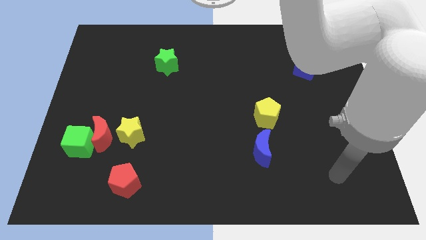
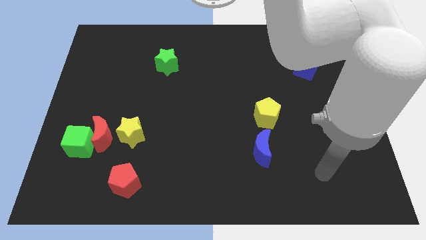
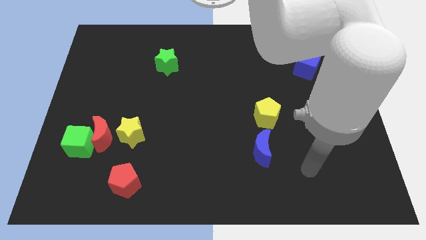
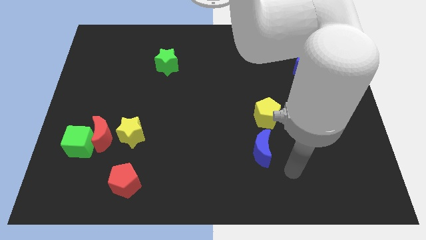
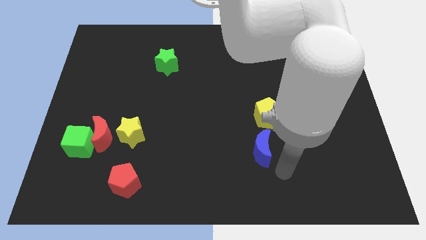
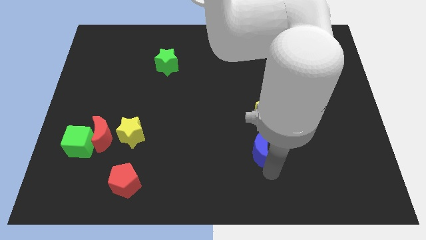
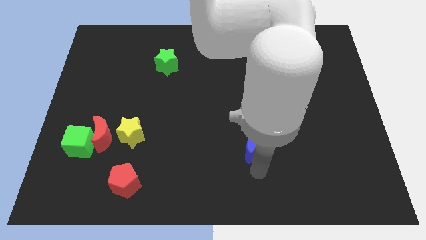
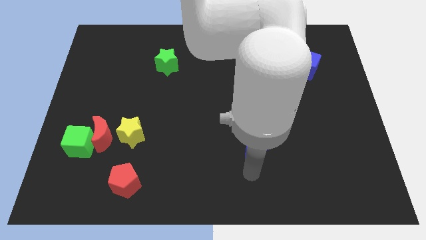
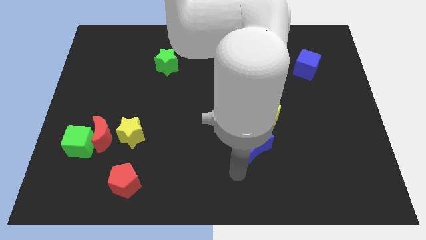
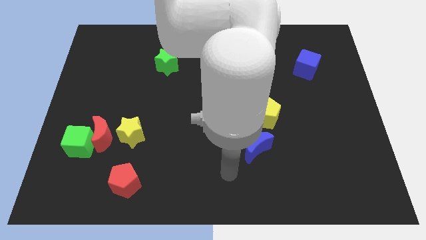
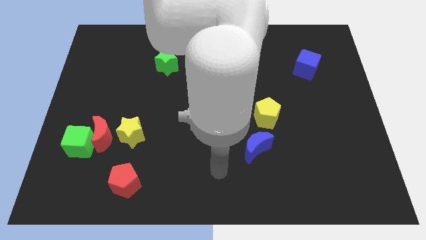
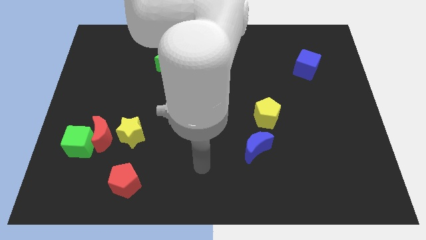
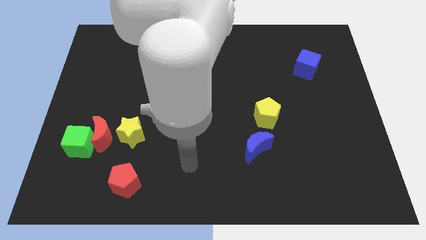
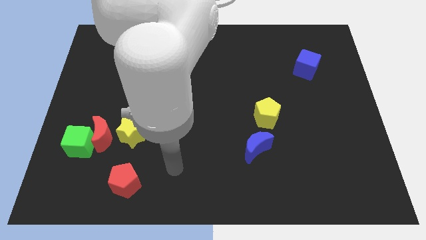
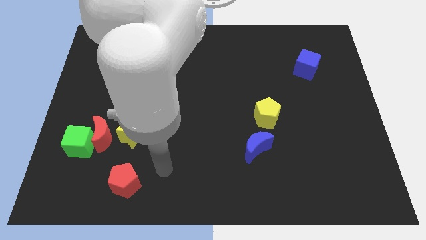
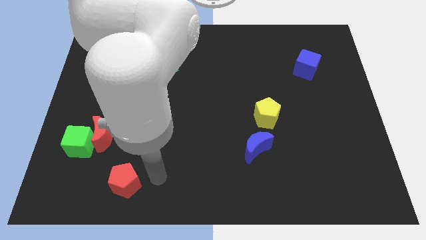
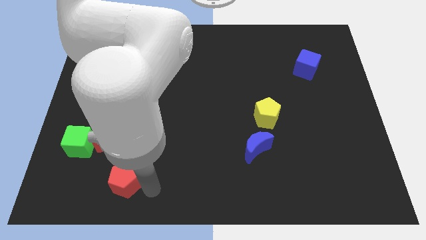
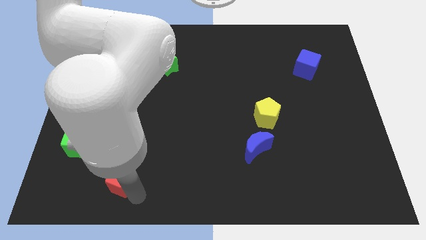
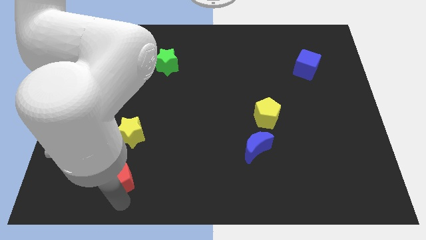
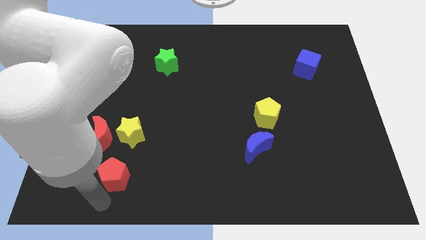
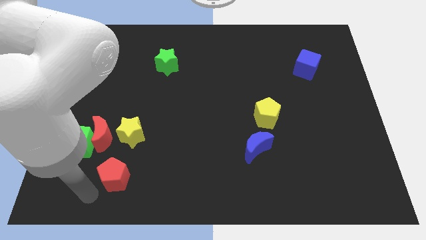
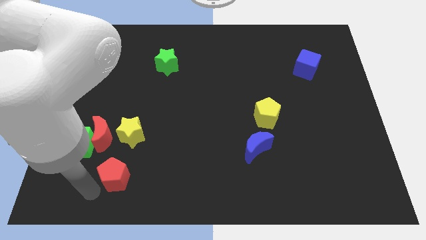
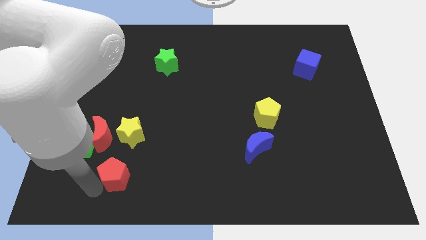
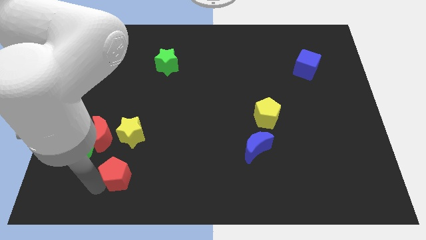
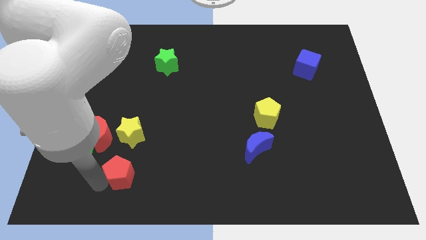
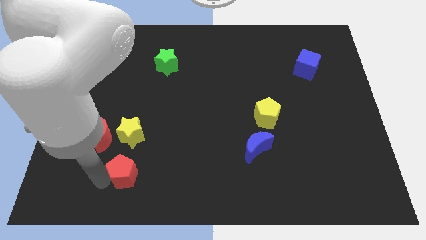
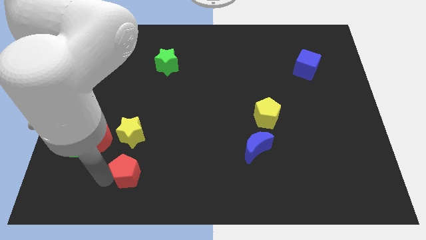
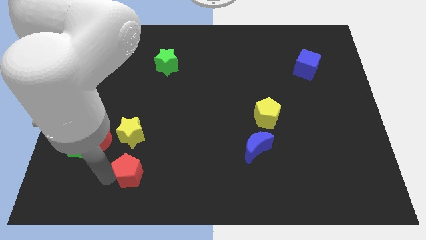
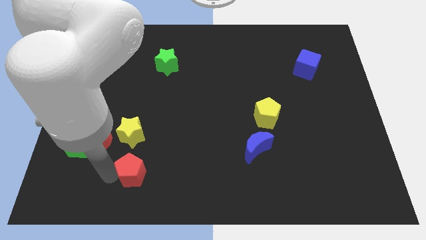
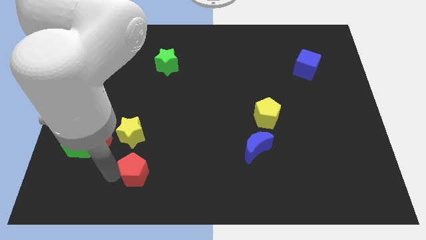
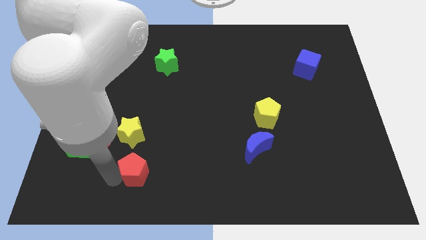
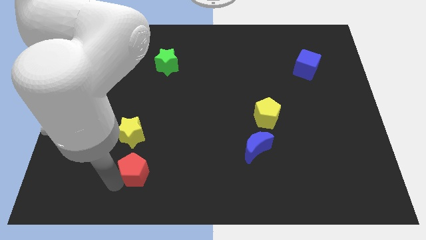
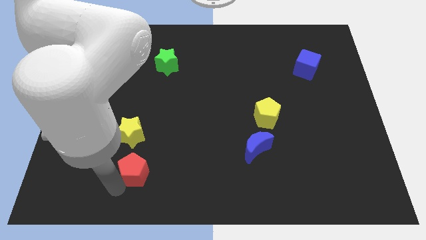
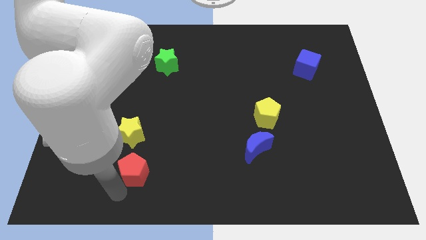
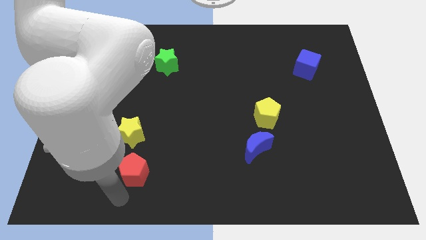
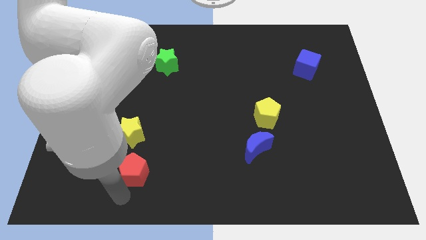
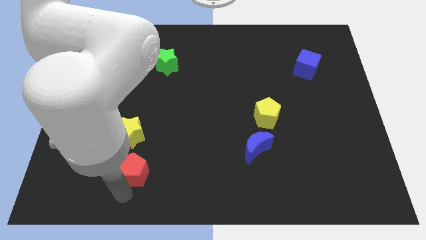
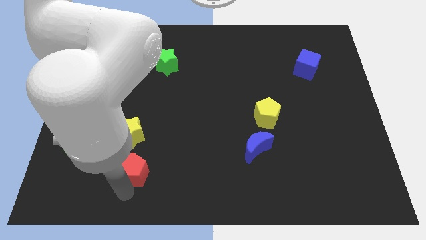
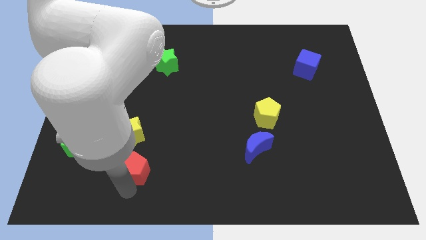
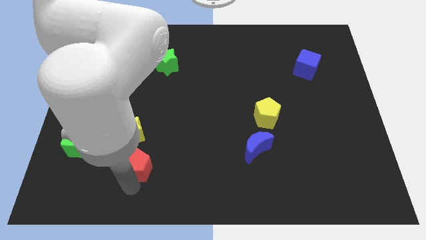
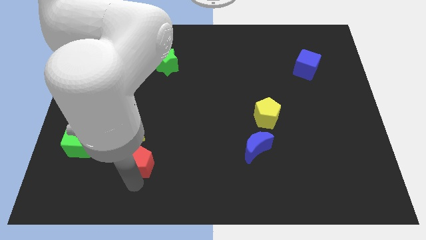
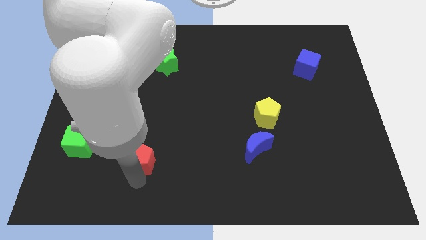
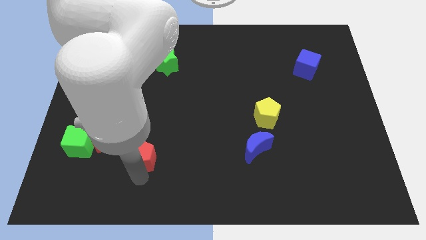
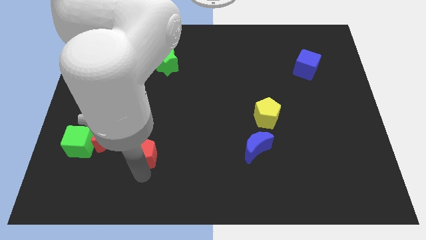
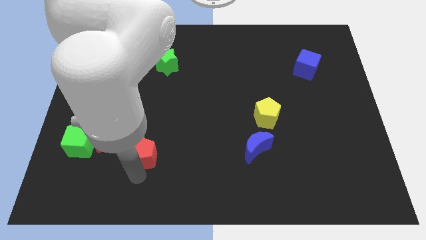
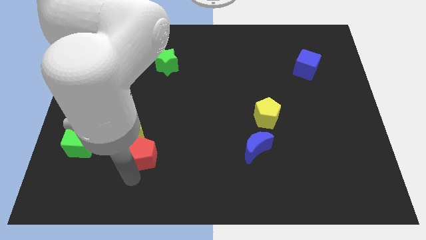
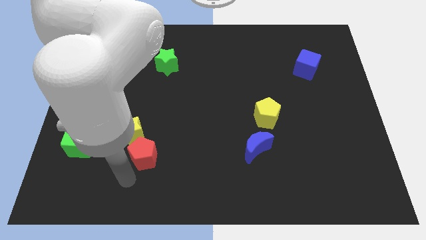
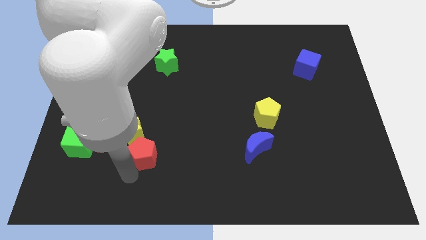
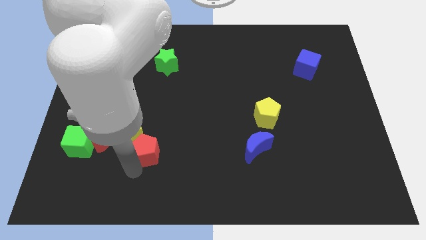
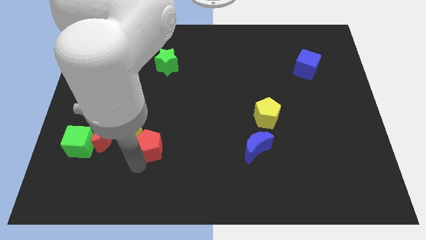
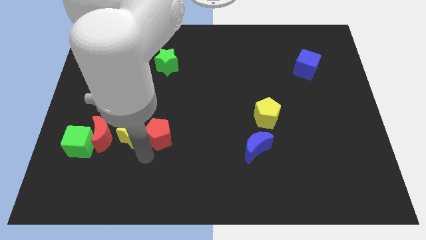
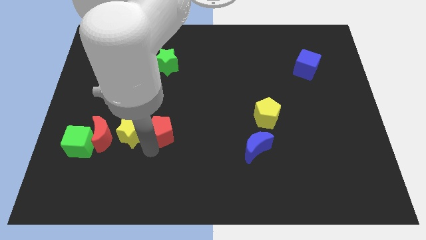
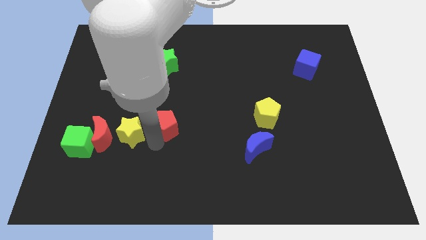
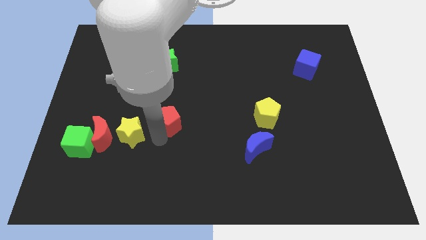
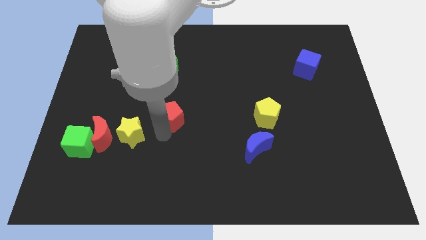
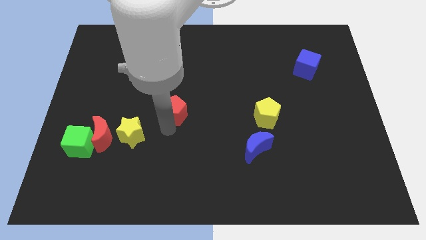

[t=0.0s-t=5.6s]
slide the red pentagon to the bottom of the green star

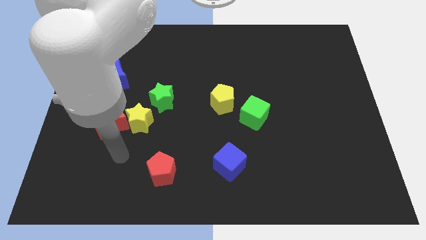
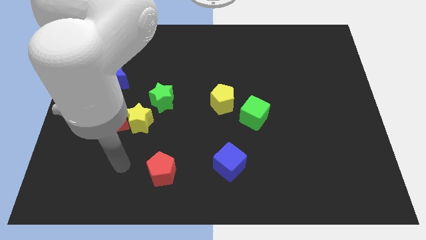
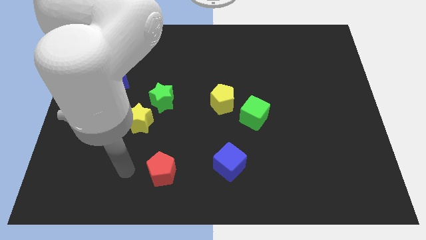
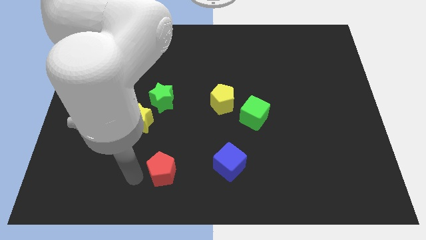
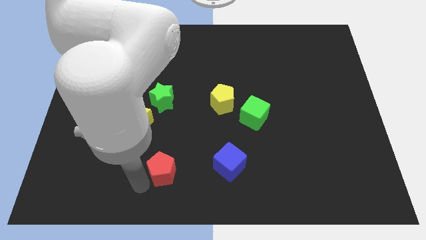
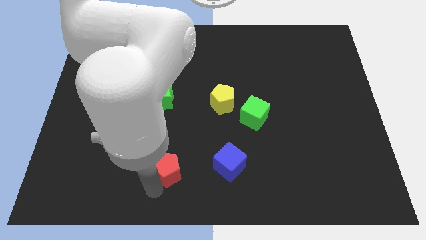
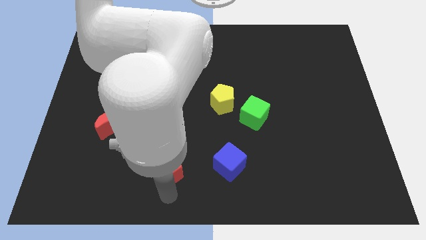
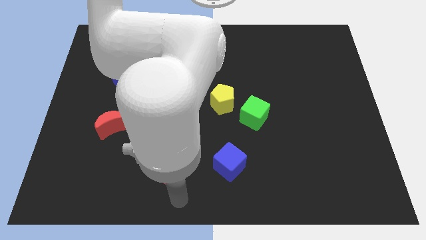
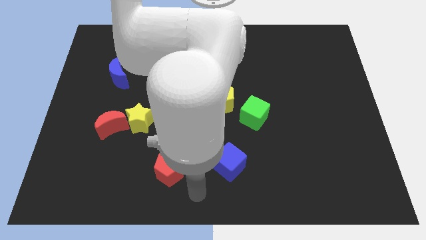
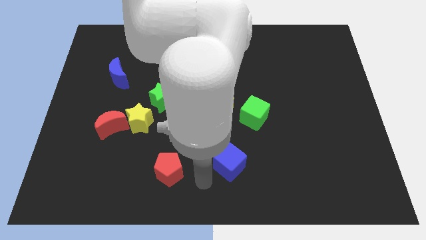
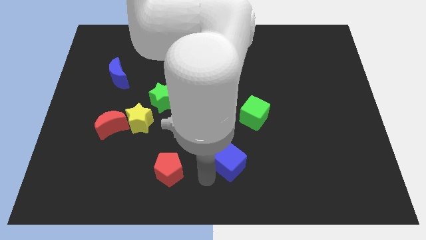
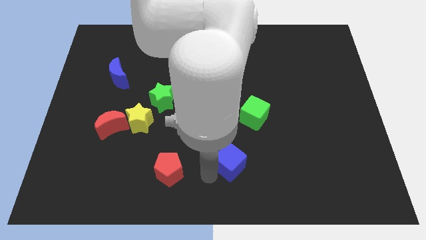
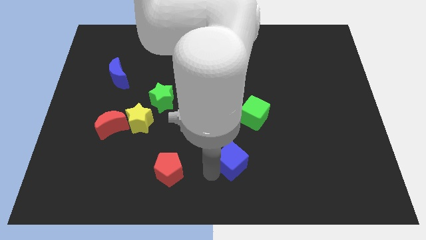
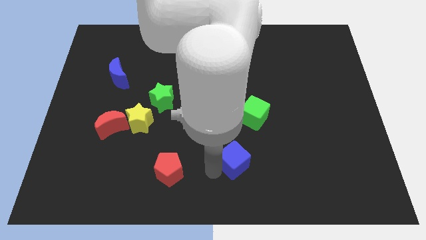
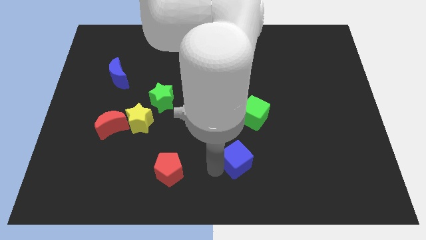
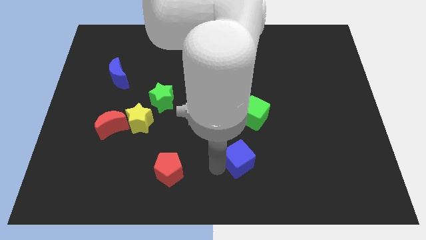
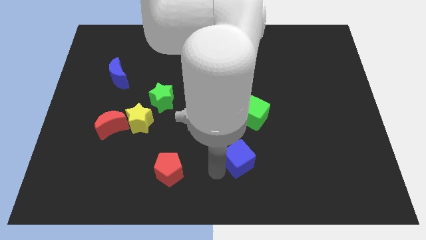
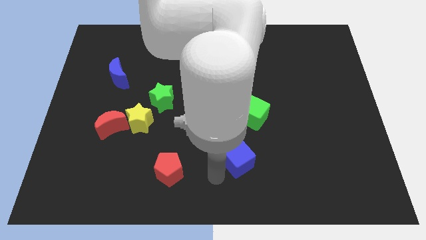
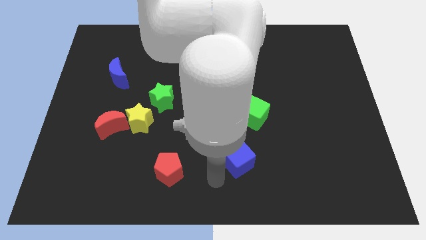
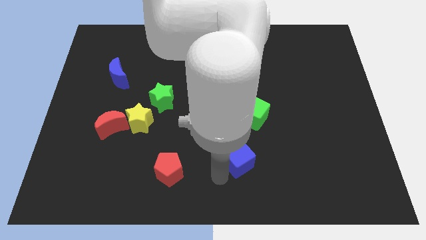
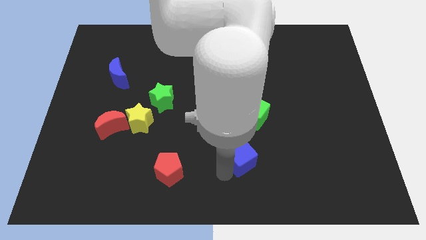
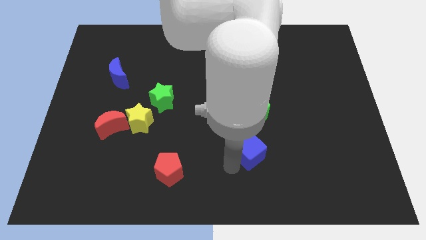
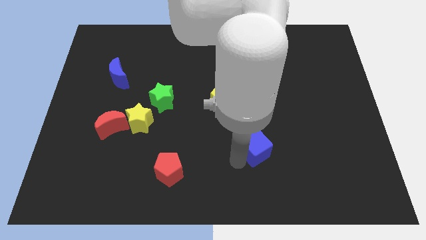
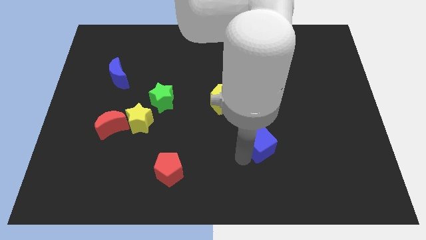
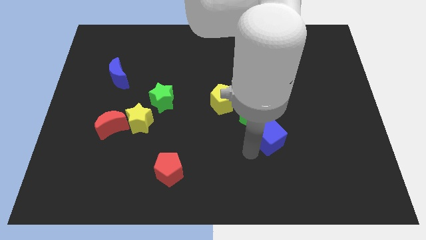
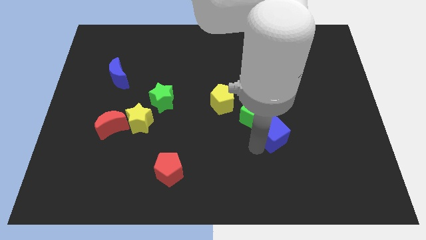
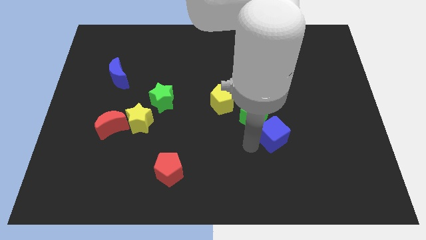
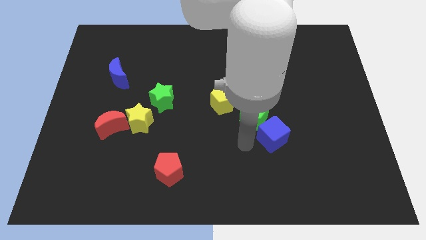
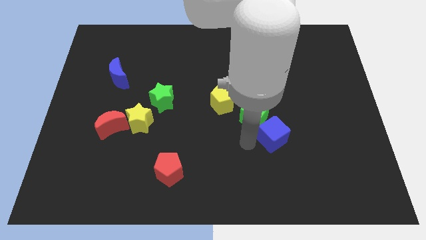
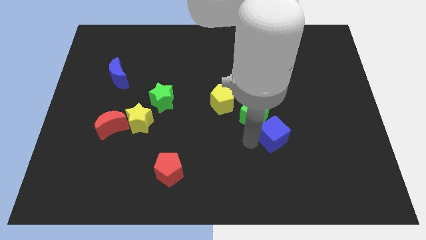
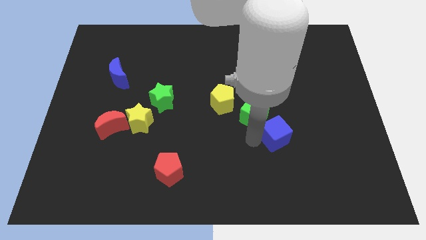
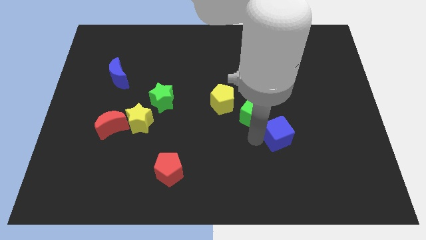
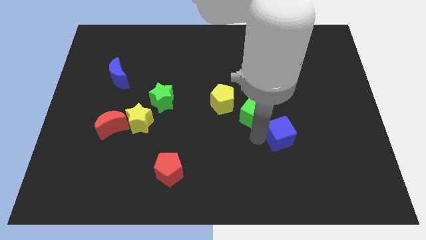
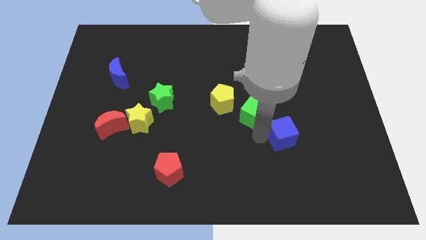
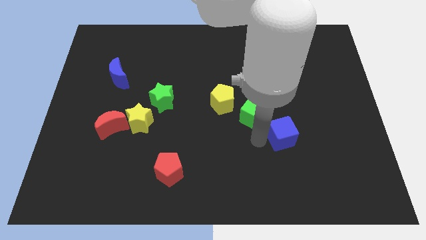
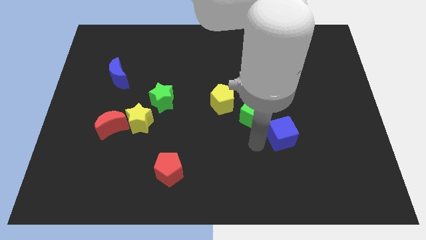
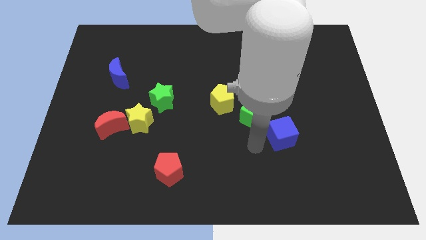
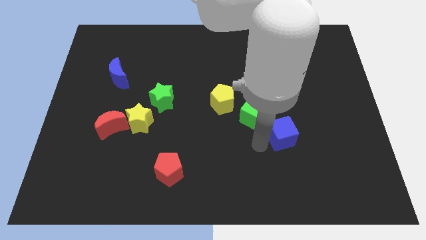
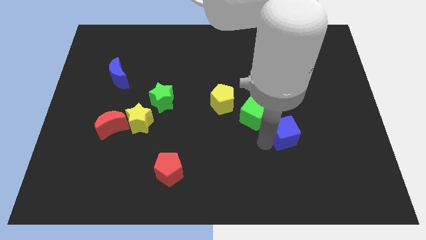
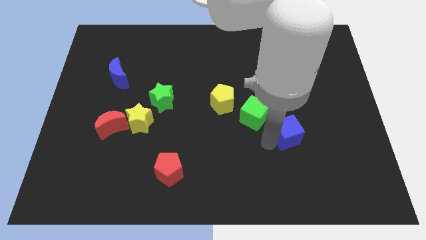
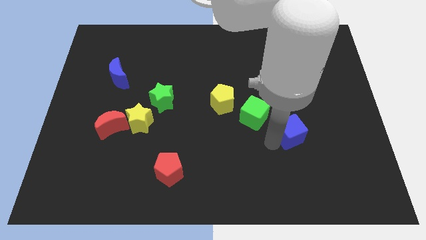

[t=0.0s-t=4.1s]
push the blue cube right of the green cube
